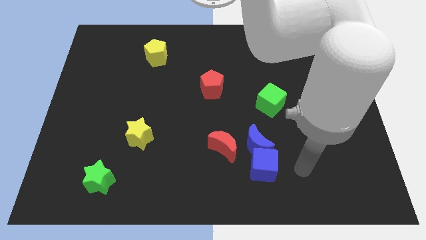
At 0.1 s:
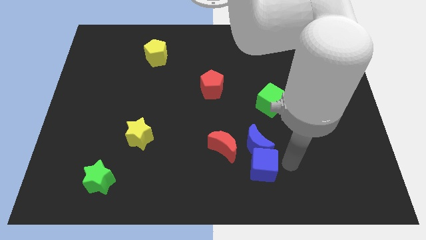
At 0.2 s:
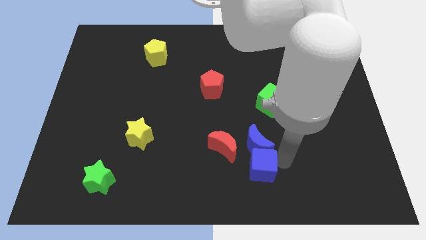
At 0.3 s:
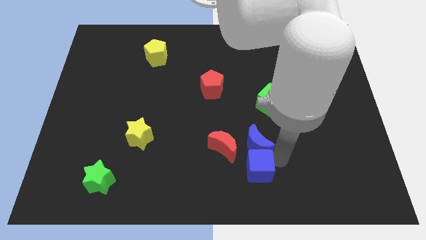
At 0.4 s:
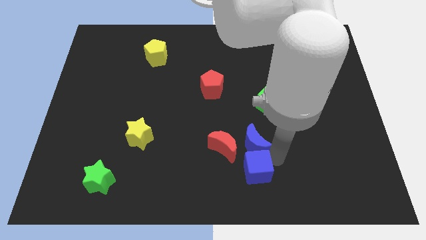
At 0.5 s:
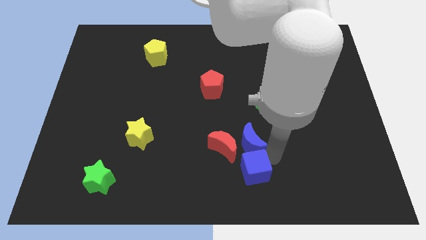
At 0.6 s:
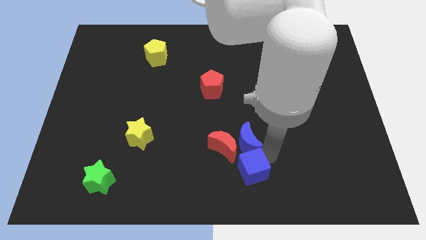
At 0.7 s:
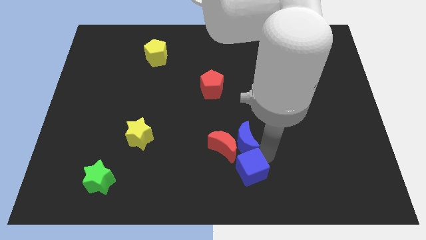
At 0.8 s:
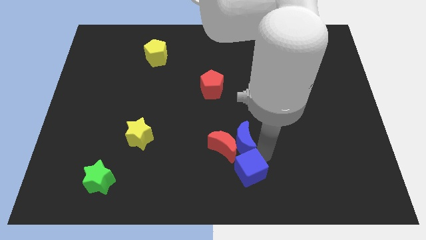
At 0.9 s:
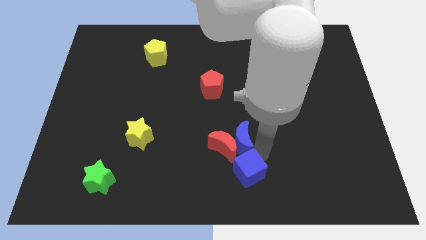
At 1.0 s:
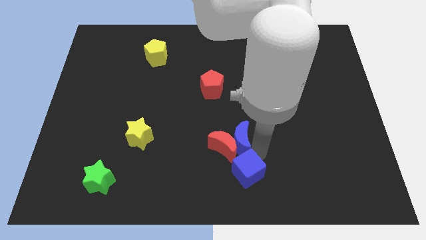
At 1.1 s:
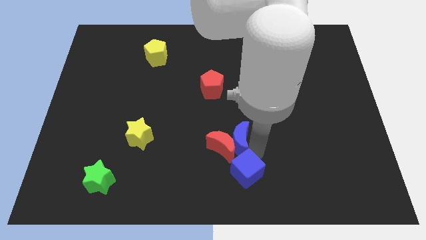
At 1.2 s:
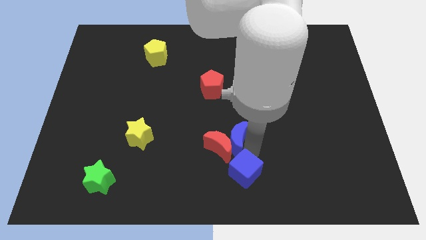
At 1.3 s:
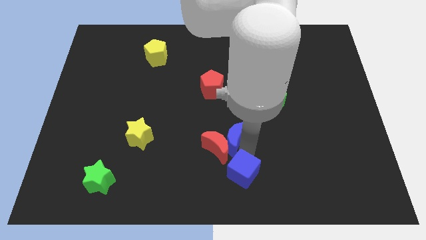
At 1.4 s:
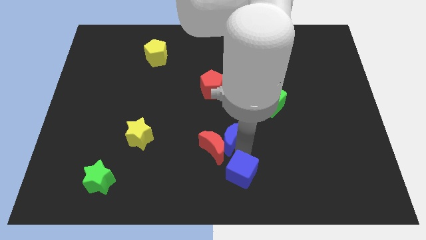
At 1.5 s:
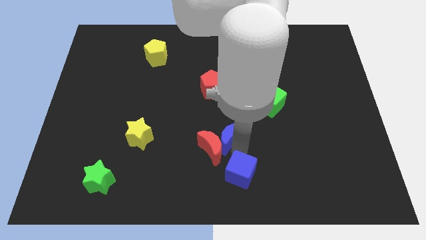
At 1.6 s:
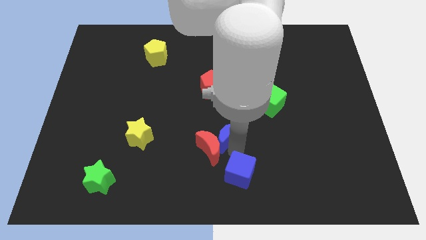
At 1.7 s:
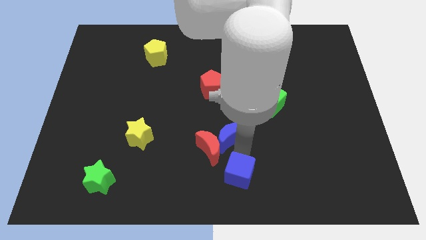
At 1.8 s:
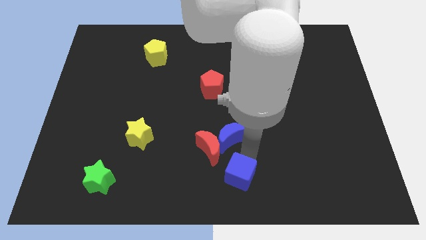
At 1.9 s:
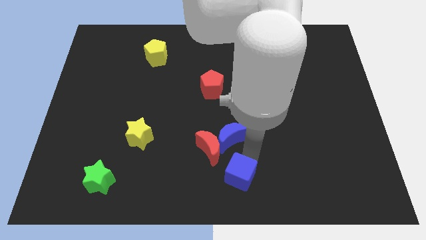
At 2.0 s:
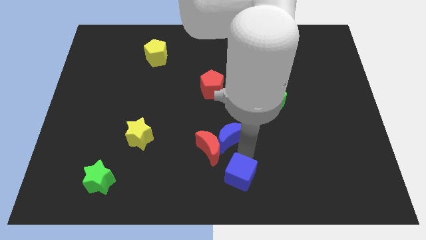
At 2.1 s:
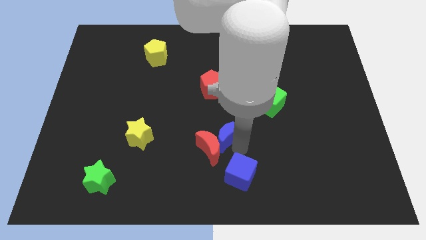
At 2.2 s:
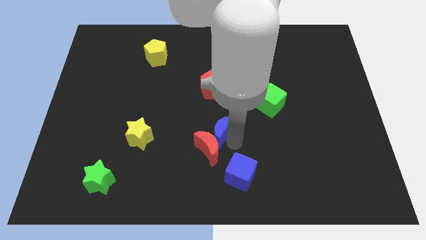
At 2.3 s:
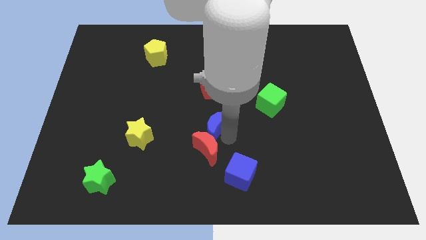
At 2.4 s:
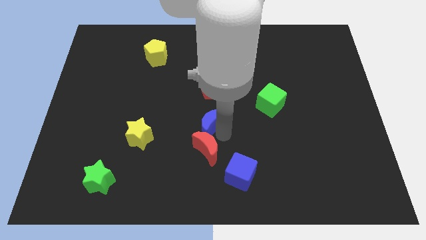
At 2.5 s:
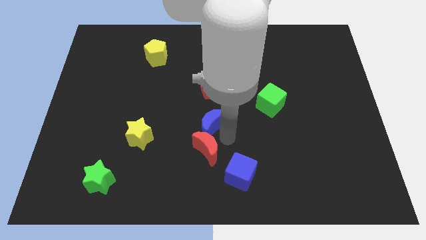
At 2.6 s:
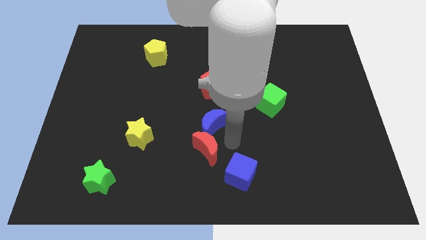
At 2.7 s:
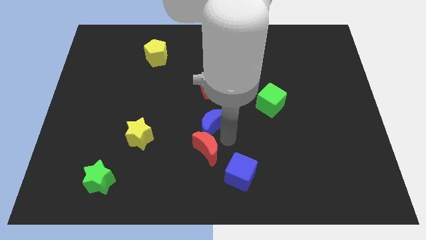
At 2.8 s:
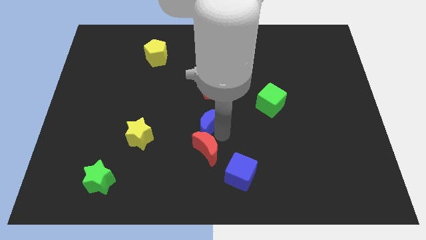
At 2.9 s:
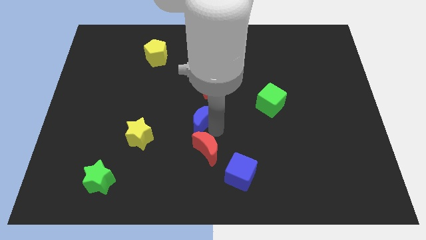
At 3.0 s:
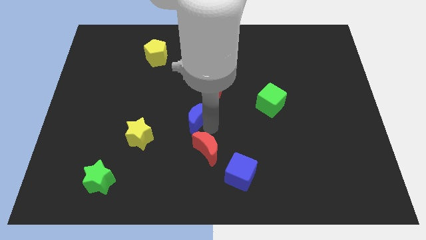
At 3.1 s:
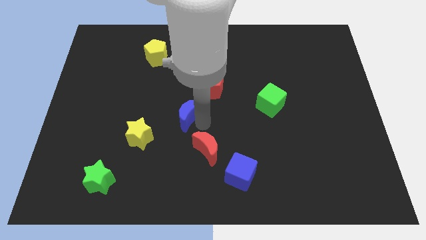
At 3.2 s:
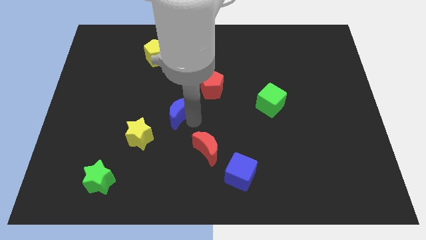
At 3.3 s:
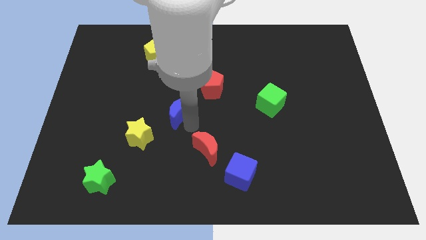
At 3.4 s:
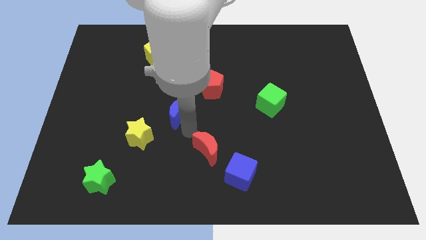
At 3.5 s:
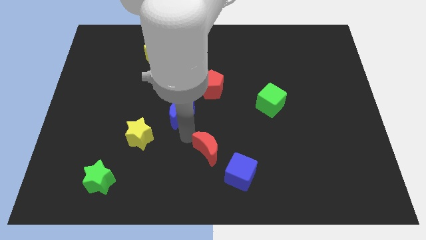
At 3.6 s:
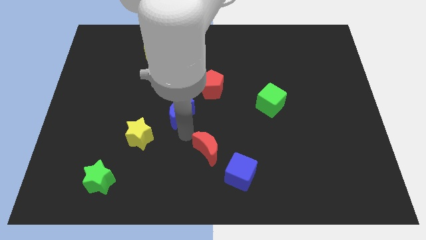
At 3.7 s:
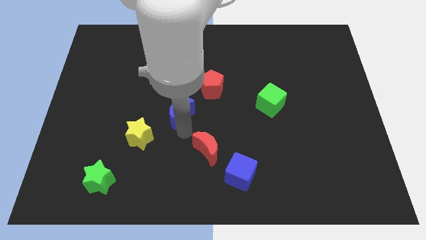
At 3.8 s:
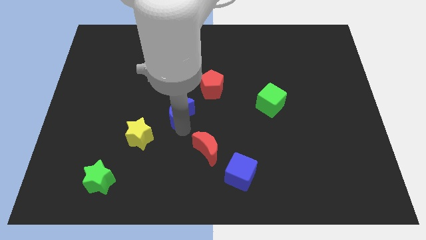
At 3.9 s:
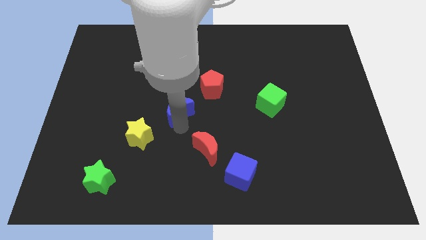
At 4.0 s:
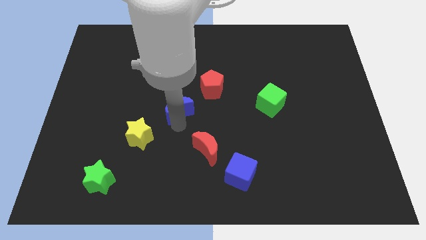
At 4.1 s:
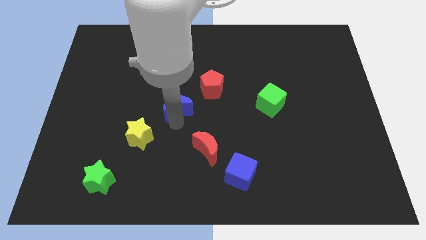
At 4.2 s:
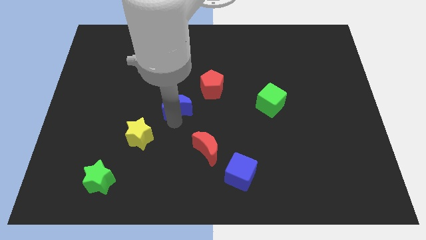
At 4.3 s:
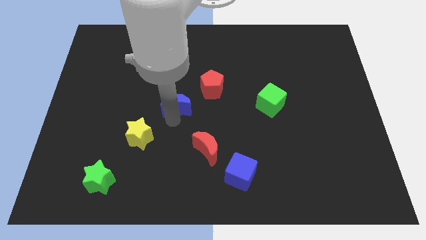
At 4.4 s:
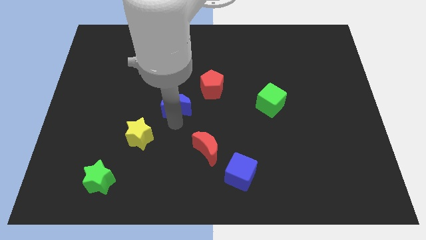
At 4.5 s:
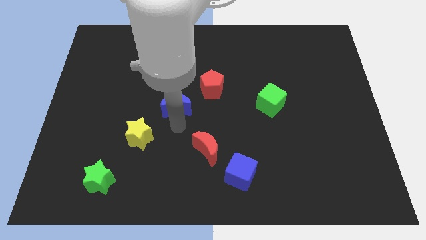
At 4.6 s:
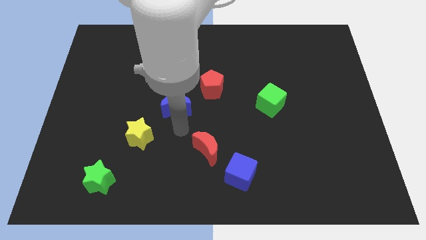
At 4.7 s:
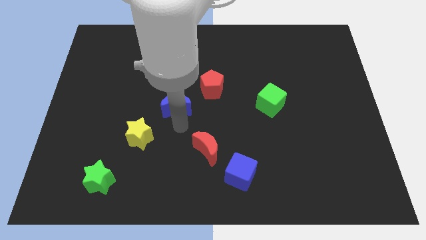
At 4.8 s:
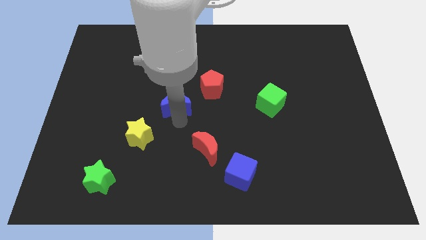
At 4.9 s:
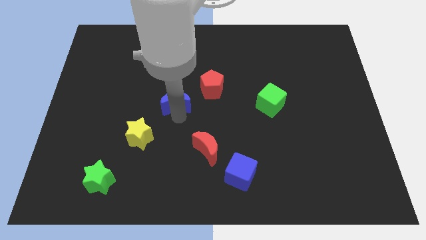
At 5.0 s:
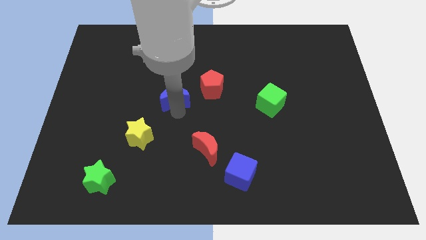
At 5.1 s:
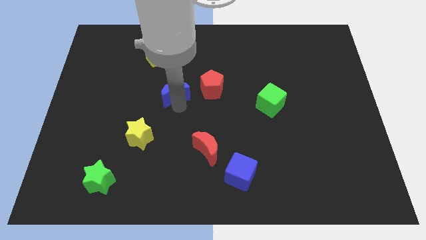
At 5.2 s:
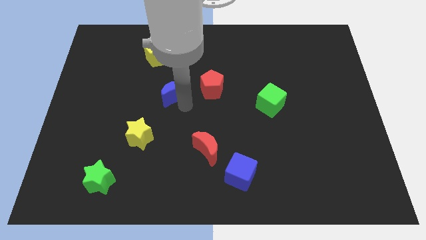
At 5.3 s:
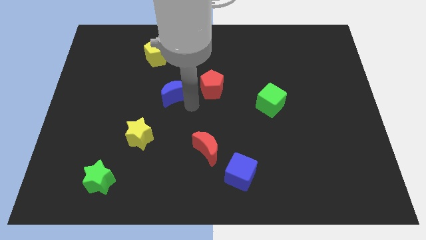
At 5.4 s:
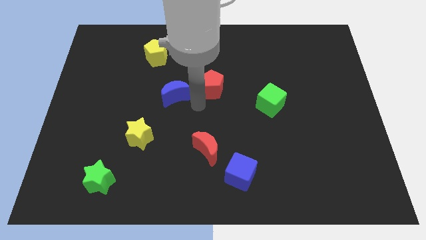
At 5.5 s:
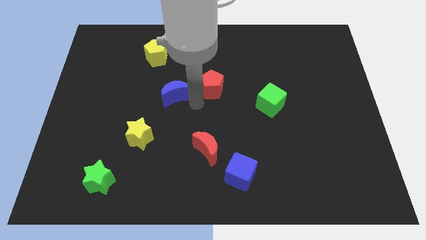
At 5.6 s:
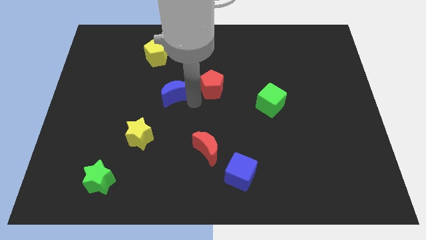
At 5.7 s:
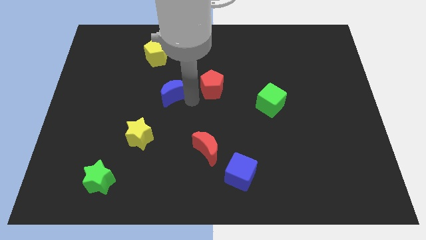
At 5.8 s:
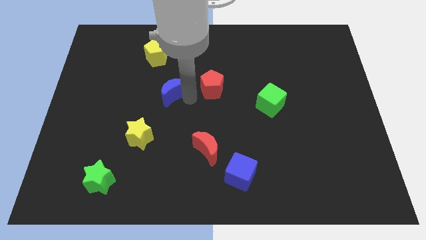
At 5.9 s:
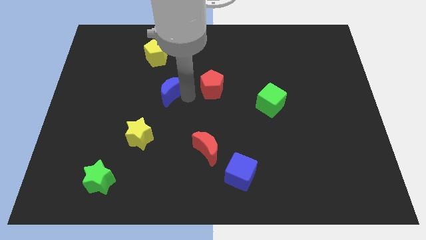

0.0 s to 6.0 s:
move the blue moon below the yellow pentagon

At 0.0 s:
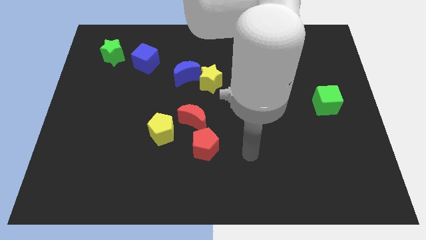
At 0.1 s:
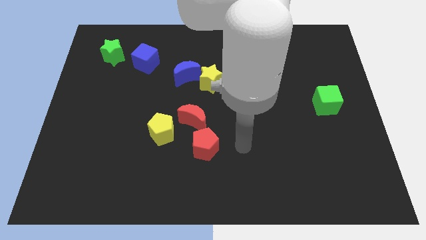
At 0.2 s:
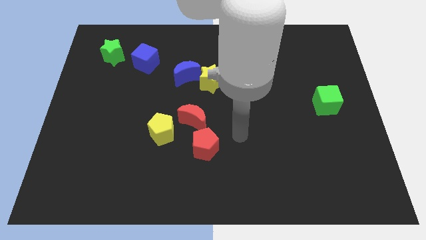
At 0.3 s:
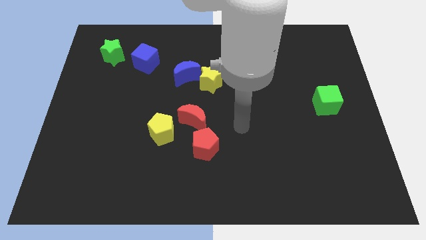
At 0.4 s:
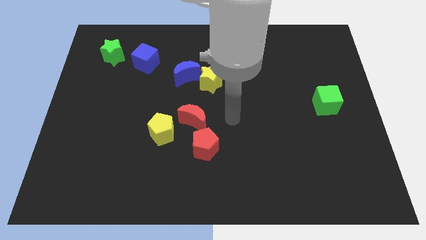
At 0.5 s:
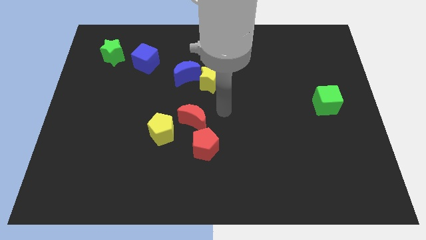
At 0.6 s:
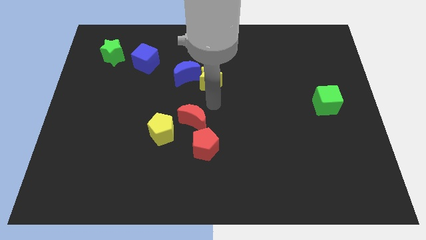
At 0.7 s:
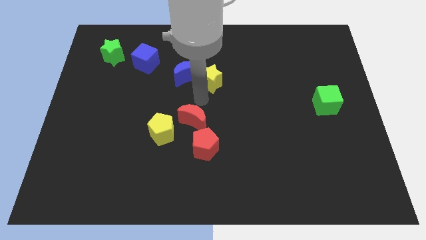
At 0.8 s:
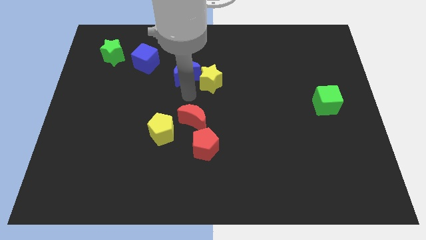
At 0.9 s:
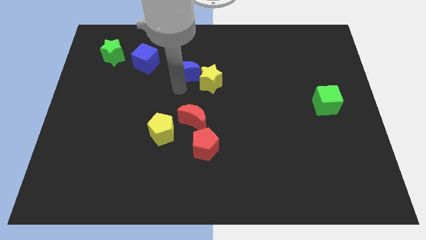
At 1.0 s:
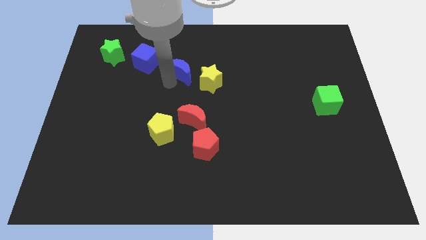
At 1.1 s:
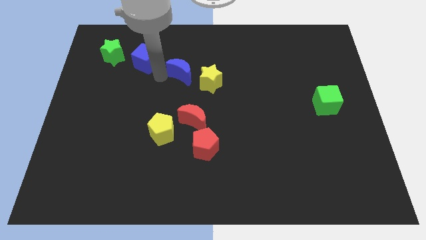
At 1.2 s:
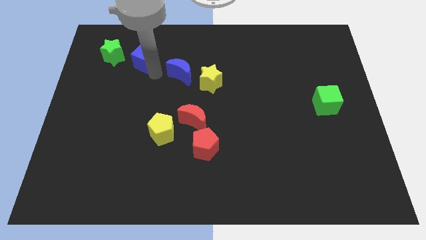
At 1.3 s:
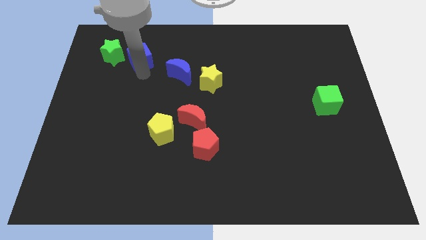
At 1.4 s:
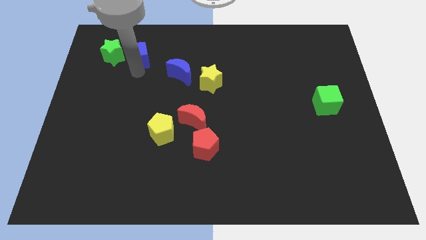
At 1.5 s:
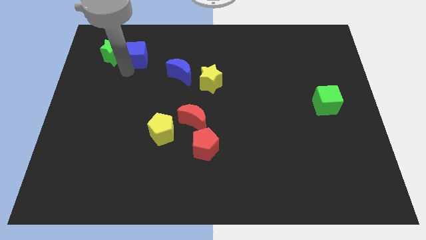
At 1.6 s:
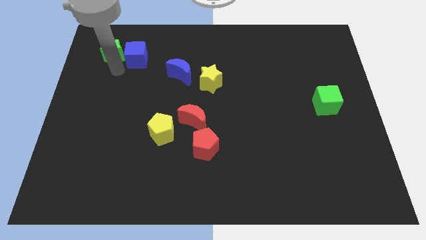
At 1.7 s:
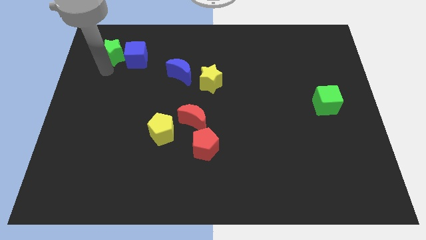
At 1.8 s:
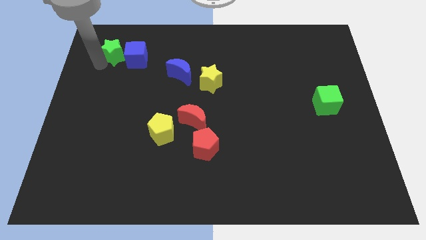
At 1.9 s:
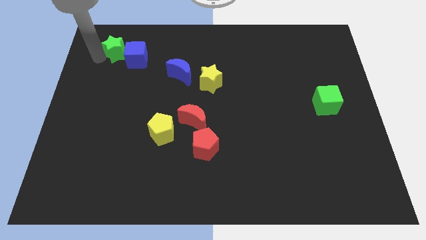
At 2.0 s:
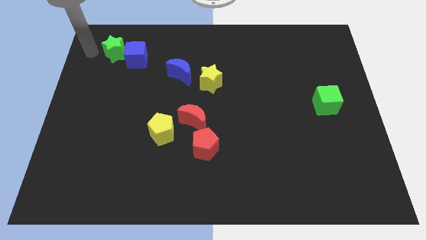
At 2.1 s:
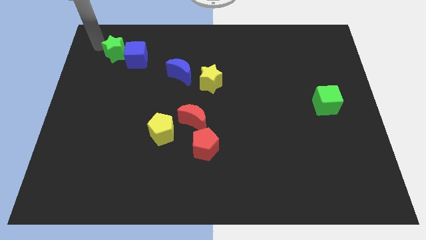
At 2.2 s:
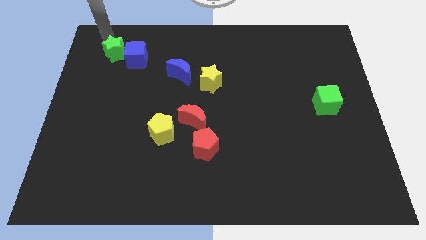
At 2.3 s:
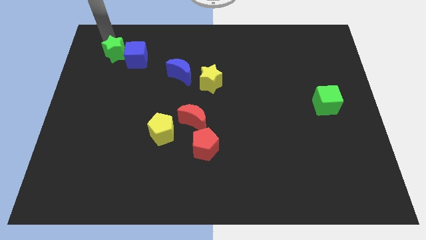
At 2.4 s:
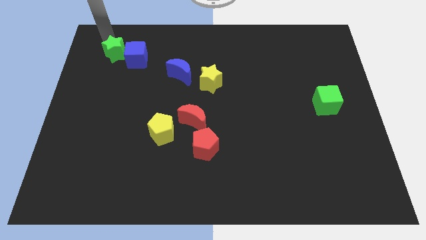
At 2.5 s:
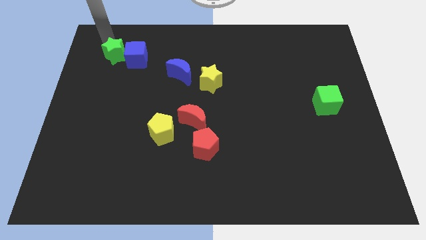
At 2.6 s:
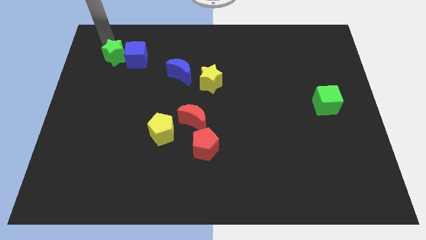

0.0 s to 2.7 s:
push the green star to the bottom left of the blue cube
